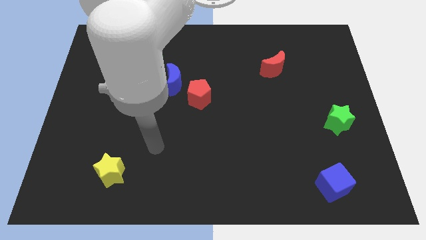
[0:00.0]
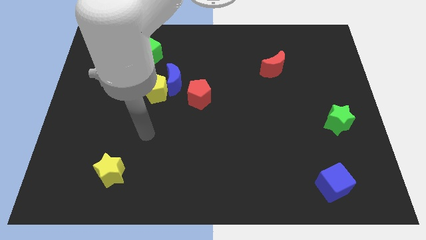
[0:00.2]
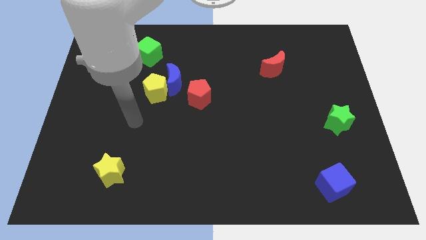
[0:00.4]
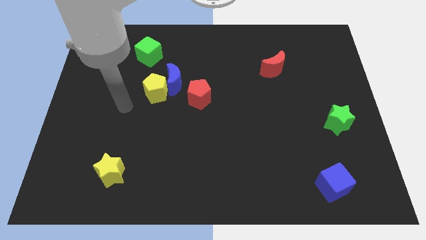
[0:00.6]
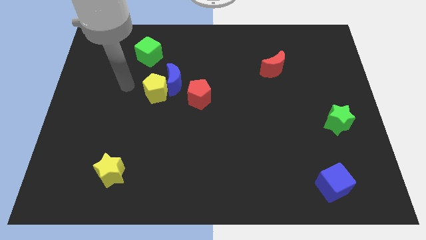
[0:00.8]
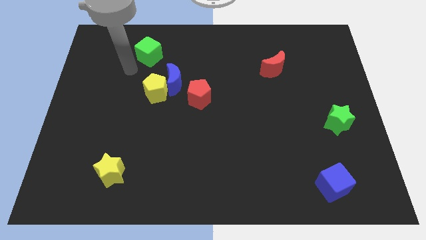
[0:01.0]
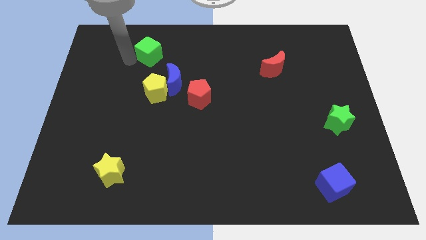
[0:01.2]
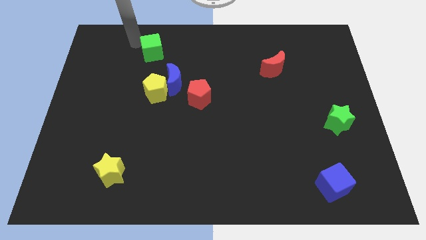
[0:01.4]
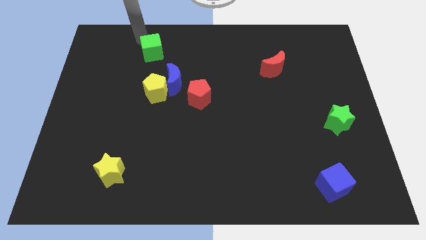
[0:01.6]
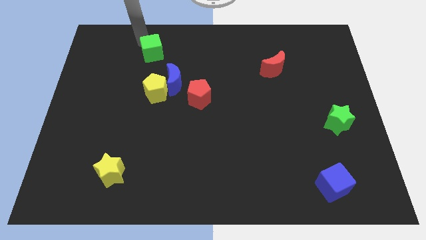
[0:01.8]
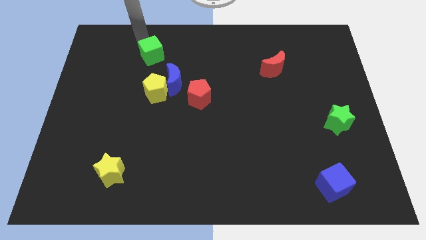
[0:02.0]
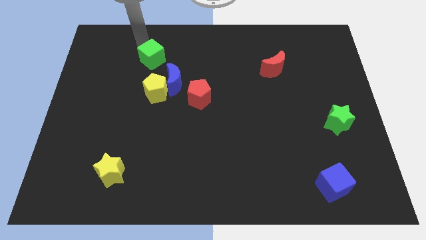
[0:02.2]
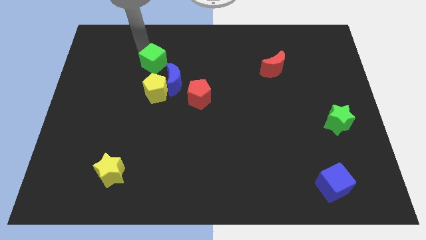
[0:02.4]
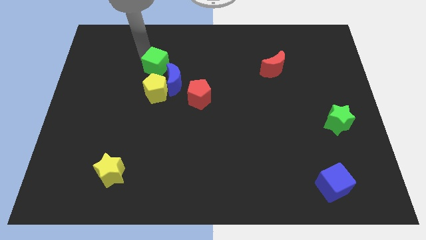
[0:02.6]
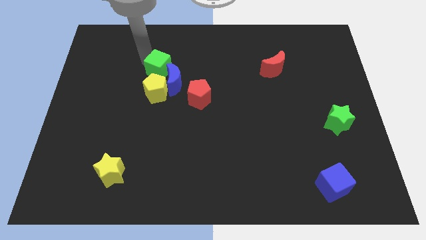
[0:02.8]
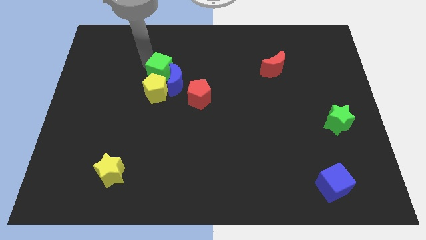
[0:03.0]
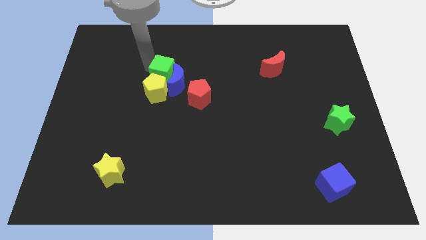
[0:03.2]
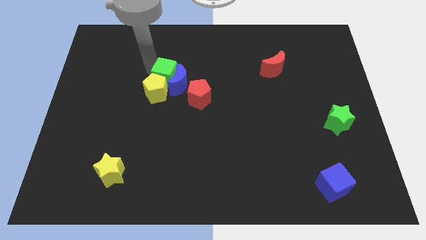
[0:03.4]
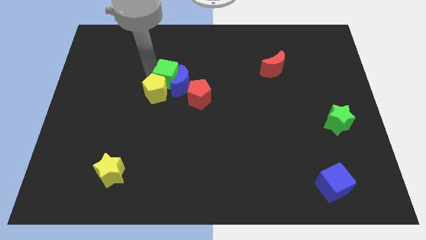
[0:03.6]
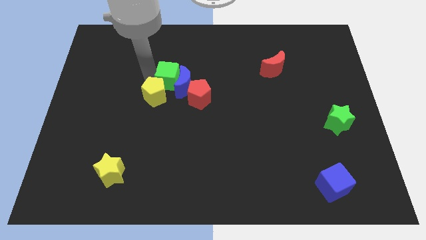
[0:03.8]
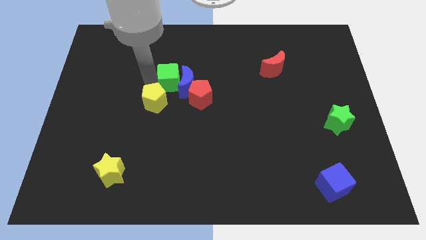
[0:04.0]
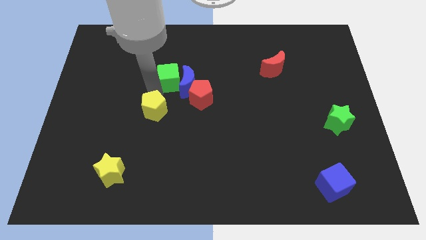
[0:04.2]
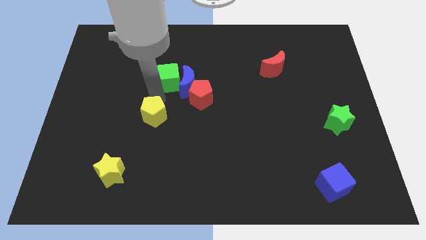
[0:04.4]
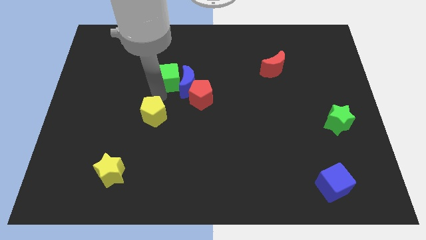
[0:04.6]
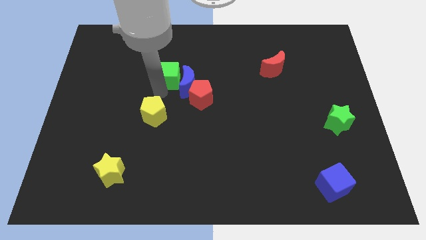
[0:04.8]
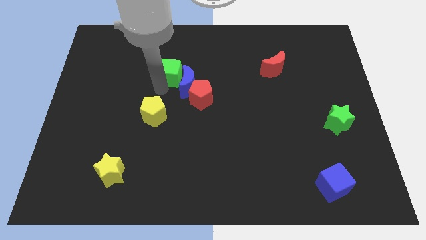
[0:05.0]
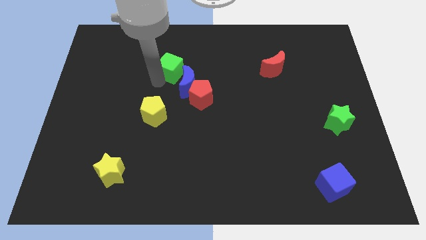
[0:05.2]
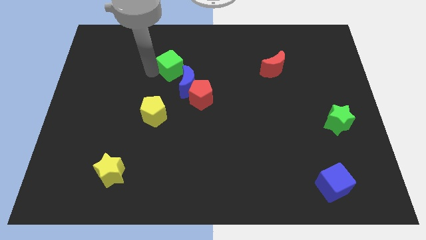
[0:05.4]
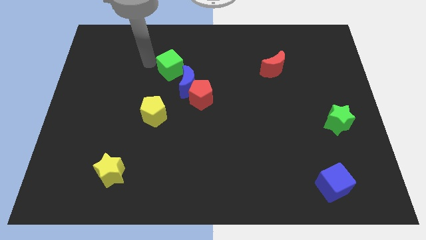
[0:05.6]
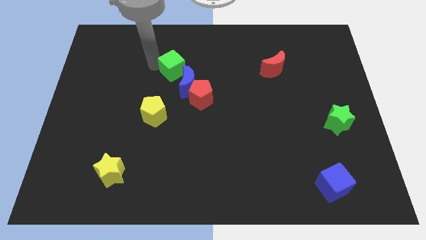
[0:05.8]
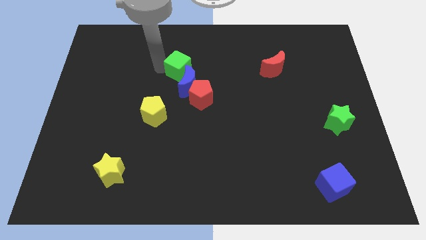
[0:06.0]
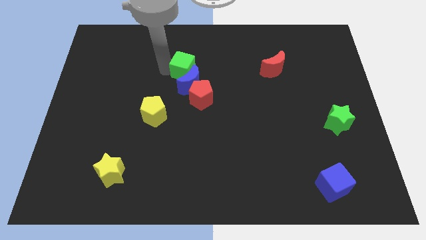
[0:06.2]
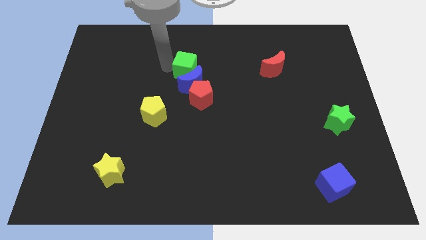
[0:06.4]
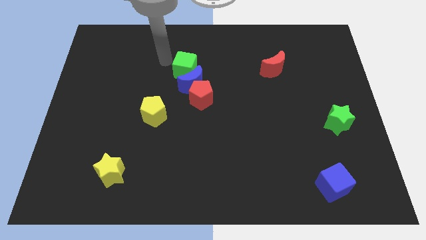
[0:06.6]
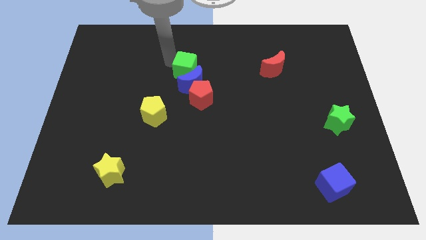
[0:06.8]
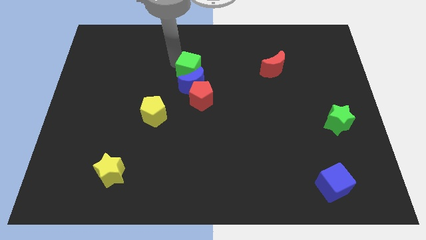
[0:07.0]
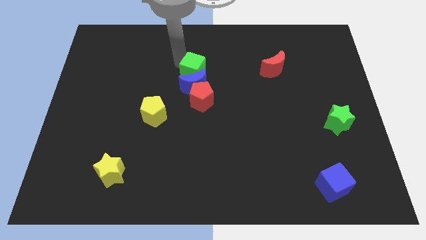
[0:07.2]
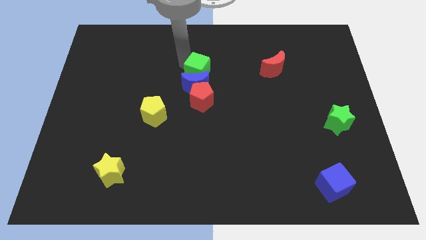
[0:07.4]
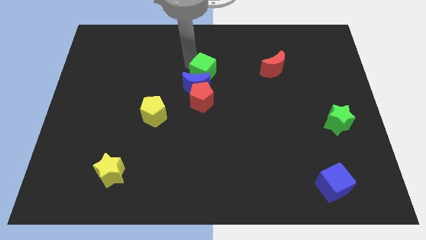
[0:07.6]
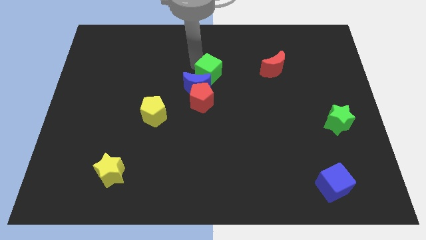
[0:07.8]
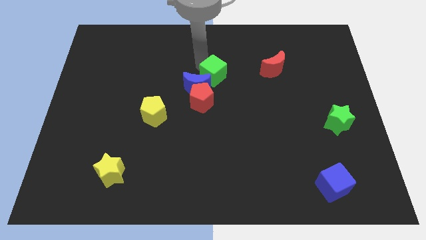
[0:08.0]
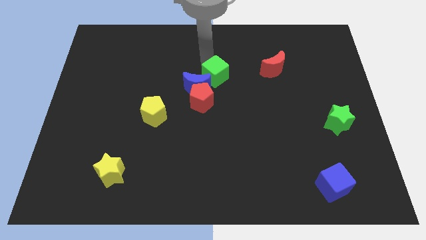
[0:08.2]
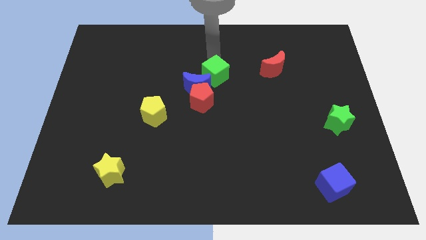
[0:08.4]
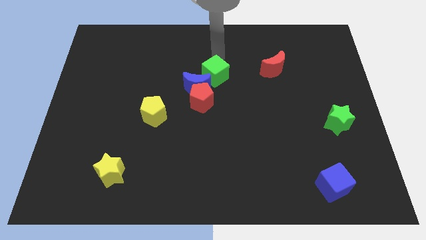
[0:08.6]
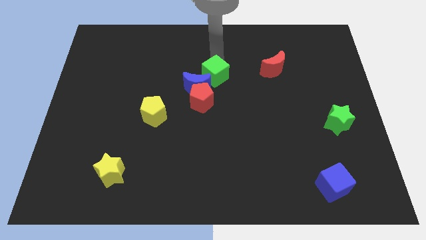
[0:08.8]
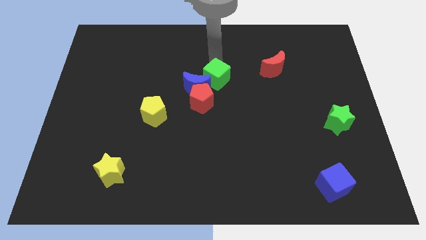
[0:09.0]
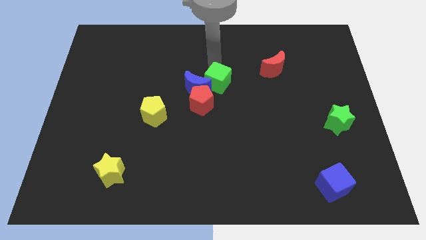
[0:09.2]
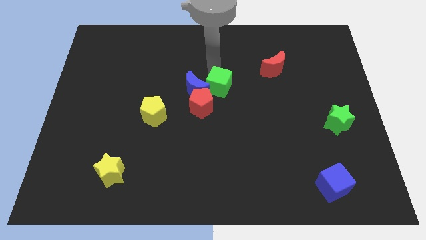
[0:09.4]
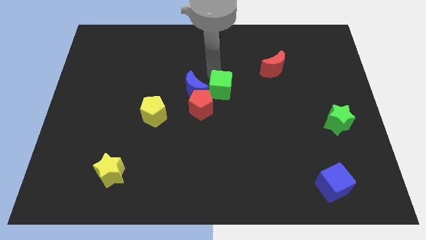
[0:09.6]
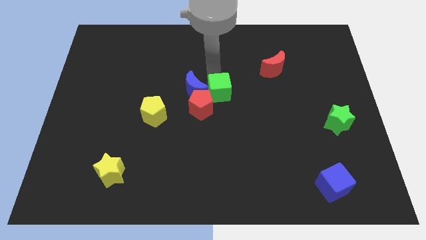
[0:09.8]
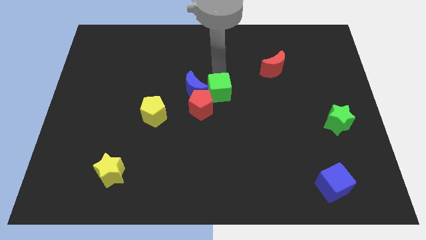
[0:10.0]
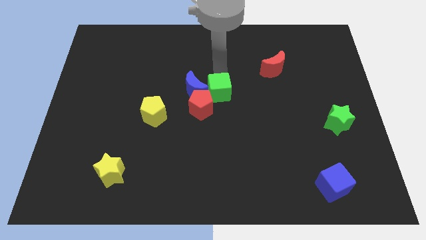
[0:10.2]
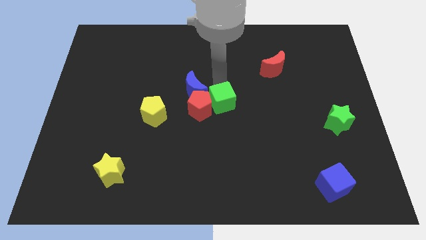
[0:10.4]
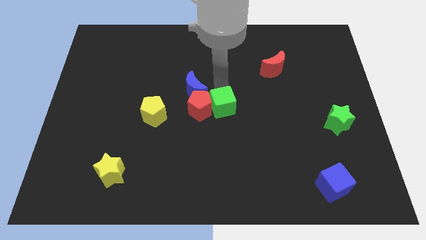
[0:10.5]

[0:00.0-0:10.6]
move the green cube to the bottom right of the red pentagon

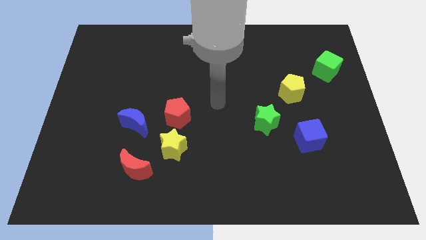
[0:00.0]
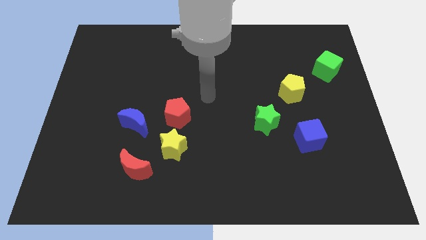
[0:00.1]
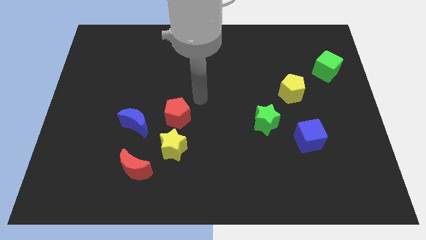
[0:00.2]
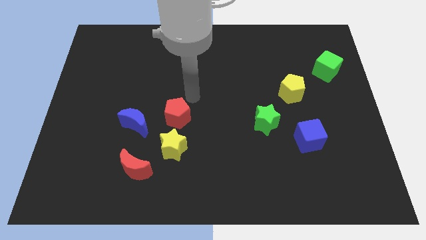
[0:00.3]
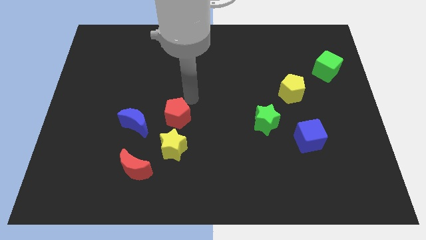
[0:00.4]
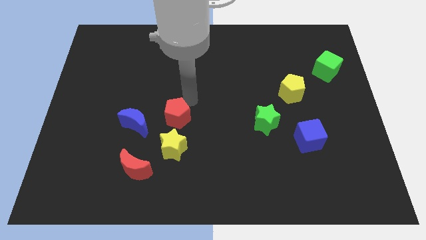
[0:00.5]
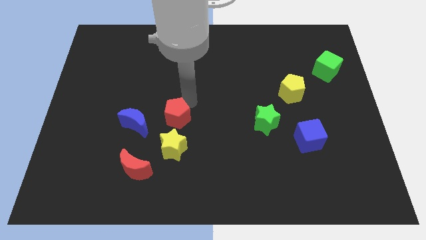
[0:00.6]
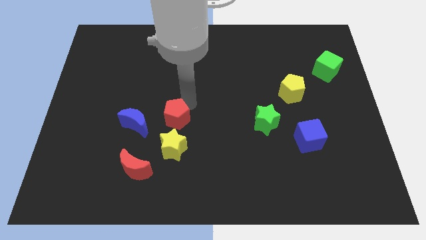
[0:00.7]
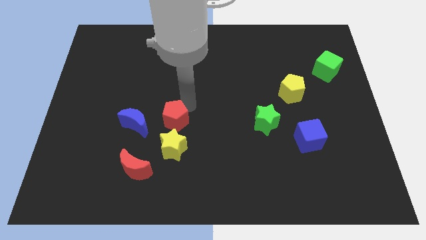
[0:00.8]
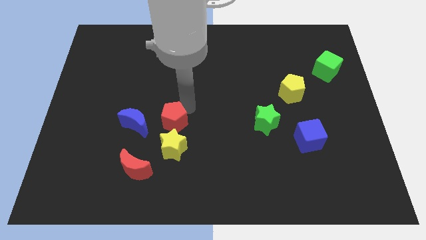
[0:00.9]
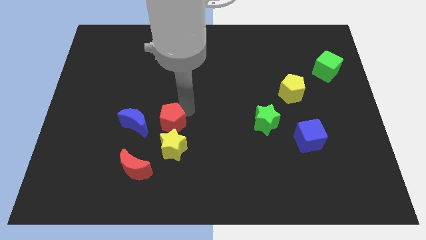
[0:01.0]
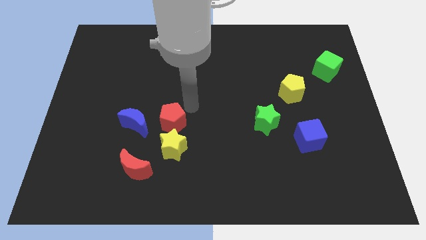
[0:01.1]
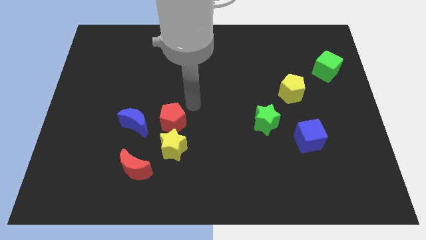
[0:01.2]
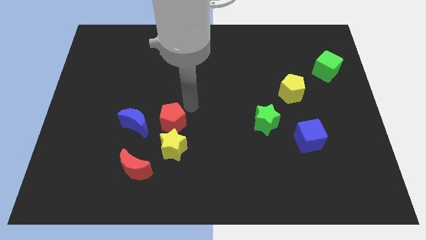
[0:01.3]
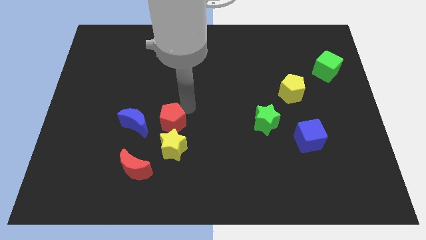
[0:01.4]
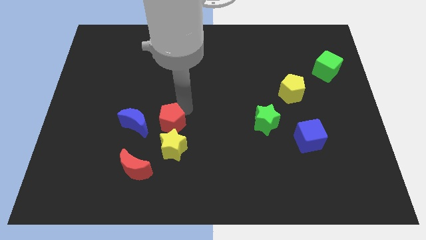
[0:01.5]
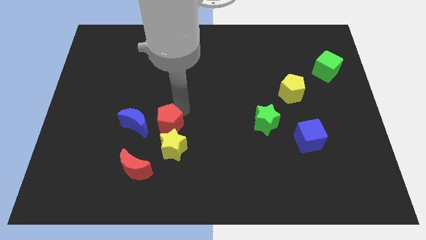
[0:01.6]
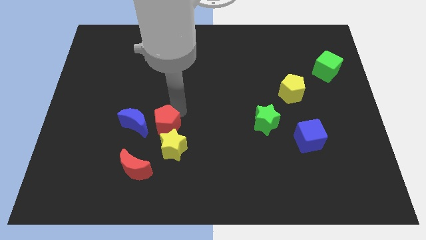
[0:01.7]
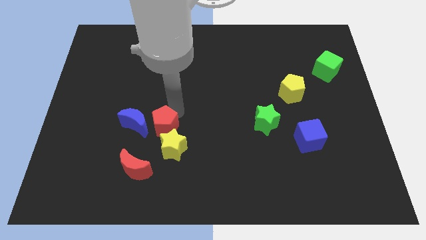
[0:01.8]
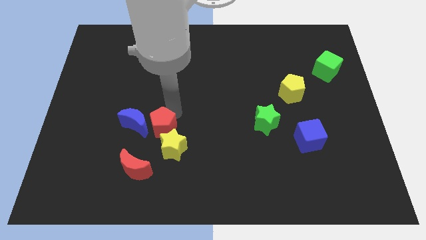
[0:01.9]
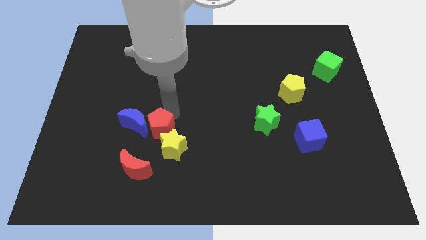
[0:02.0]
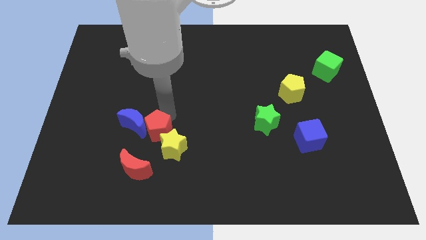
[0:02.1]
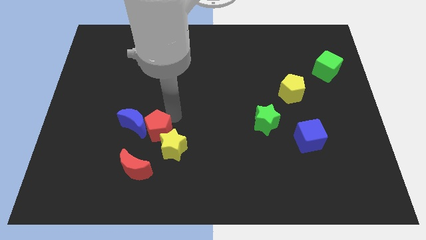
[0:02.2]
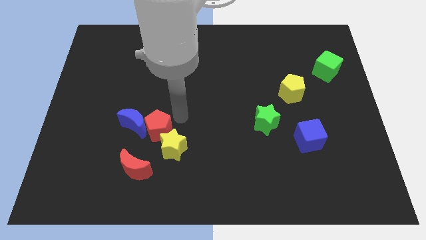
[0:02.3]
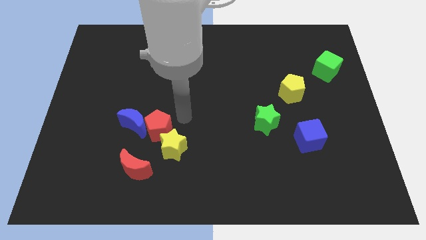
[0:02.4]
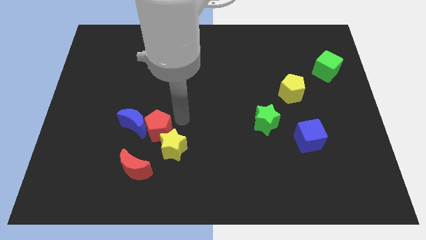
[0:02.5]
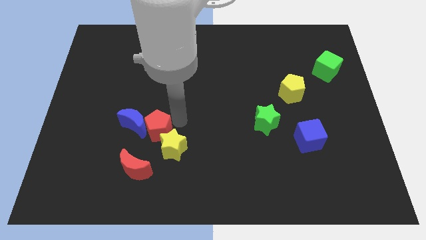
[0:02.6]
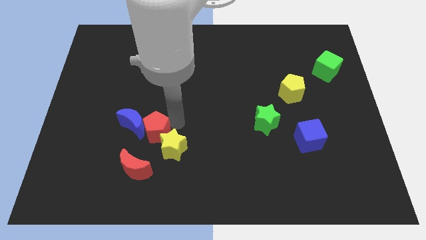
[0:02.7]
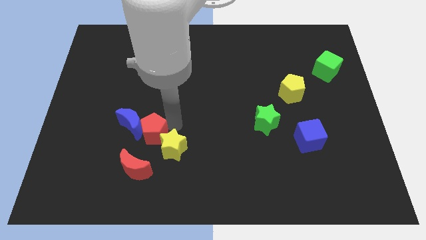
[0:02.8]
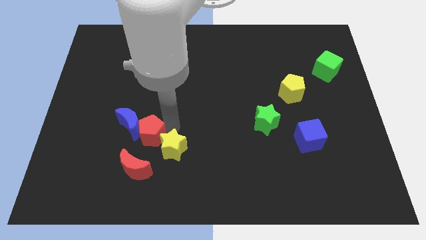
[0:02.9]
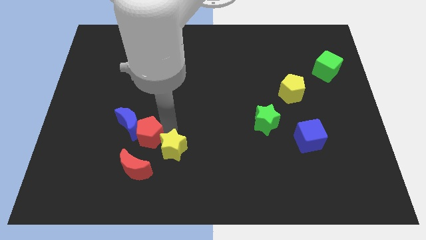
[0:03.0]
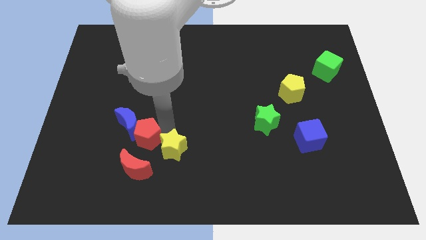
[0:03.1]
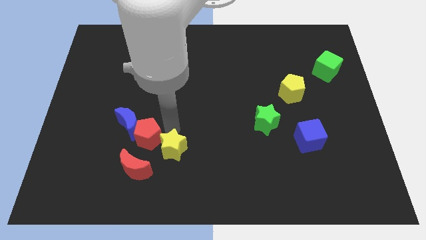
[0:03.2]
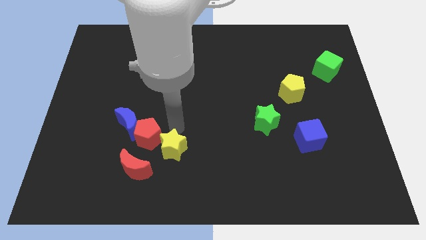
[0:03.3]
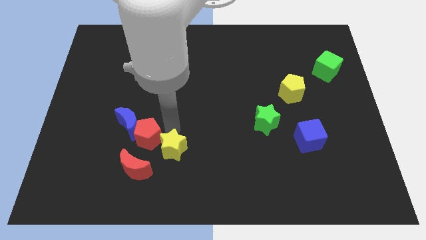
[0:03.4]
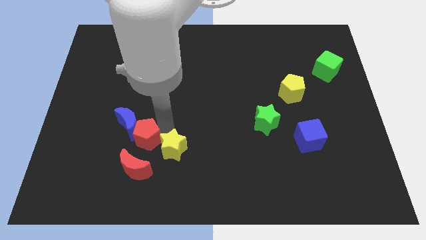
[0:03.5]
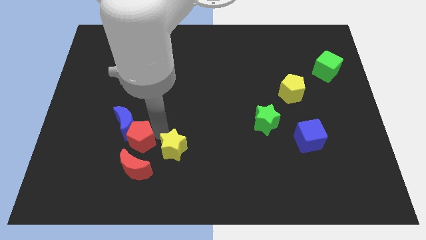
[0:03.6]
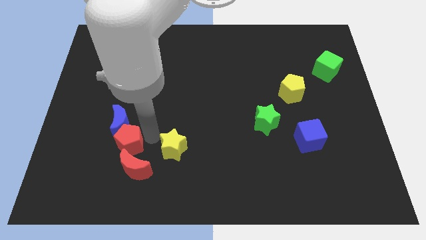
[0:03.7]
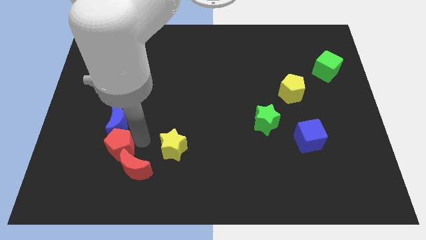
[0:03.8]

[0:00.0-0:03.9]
move the red pentagon to the bottom left side of the blue moon
